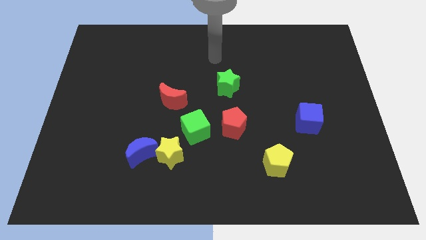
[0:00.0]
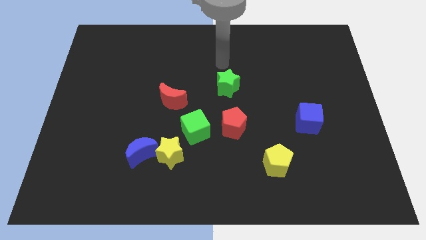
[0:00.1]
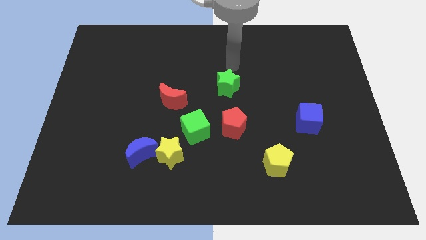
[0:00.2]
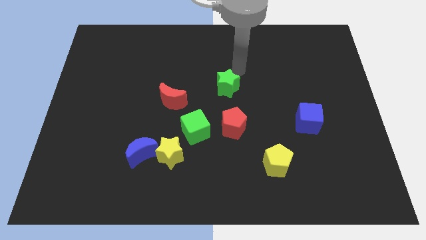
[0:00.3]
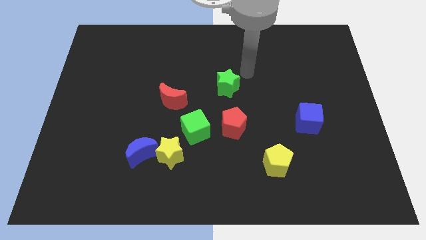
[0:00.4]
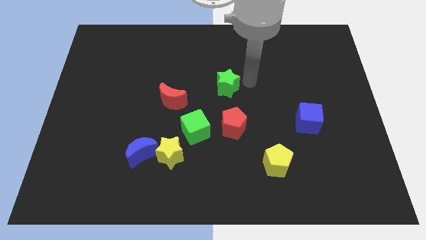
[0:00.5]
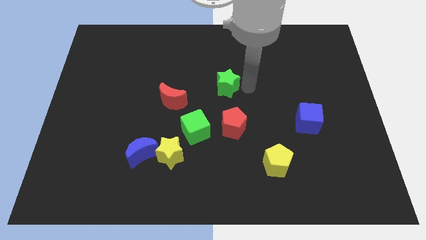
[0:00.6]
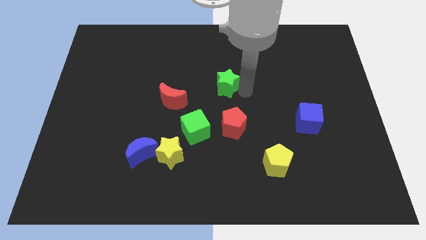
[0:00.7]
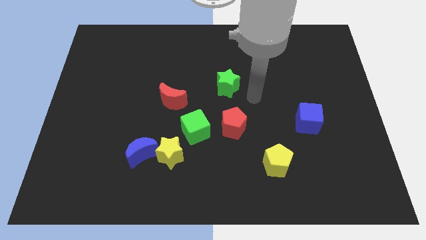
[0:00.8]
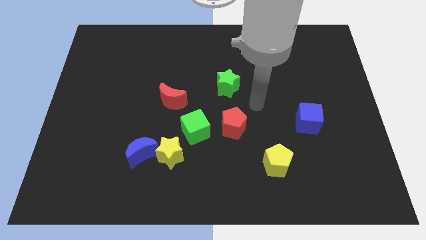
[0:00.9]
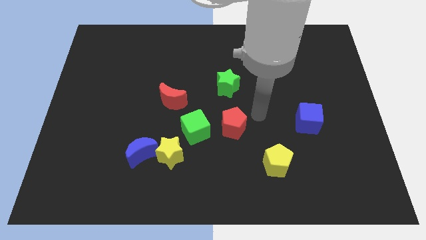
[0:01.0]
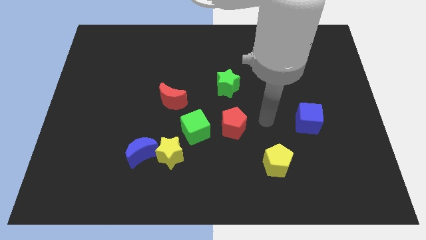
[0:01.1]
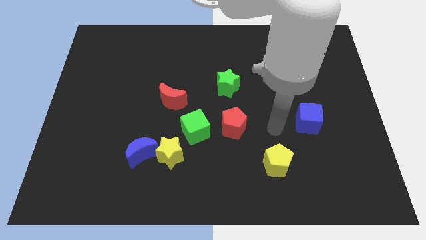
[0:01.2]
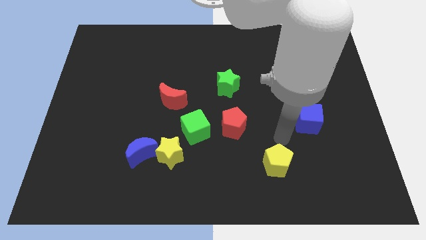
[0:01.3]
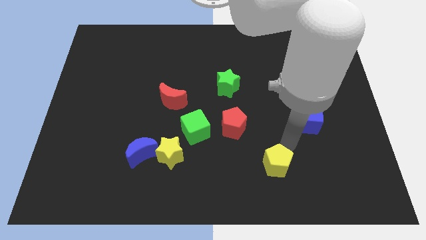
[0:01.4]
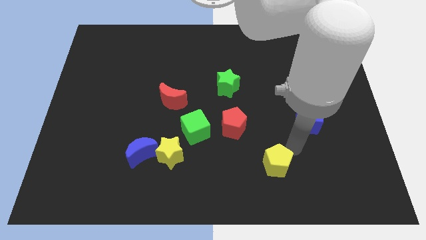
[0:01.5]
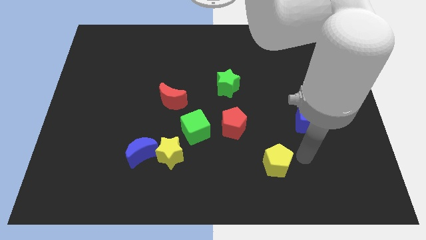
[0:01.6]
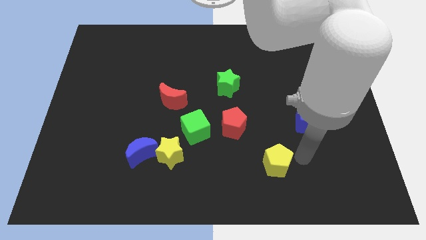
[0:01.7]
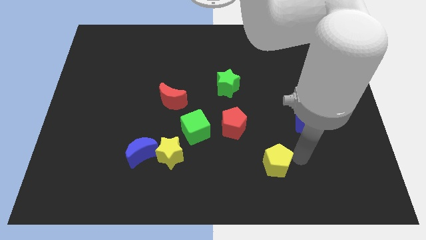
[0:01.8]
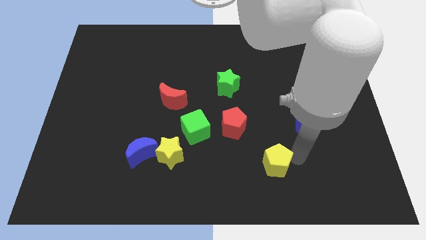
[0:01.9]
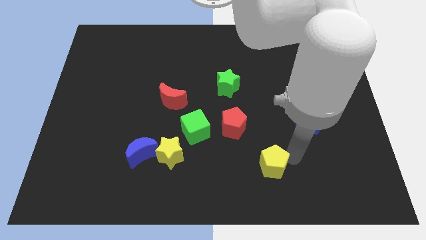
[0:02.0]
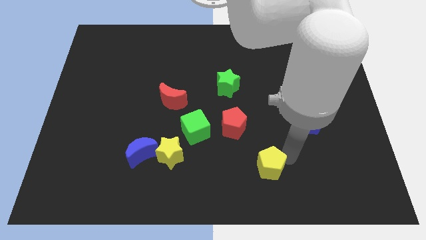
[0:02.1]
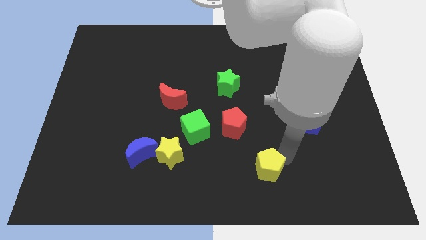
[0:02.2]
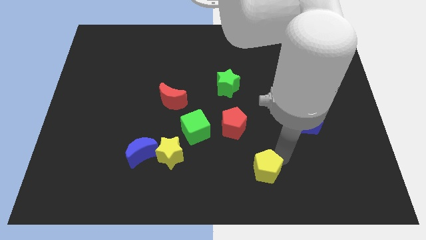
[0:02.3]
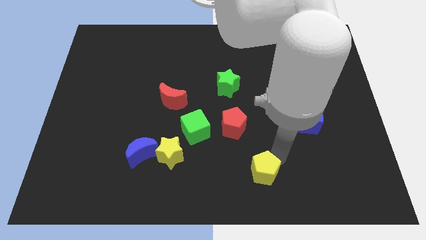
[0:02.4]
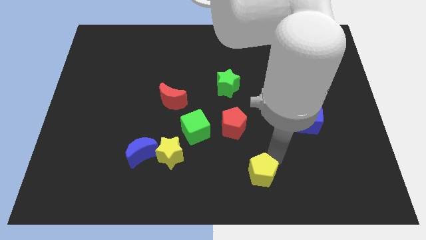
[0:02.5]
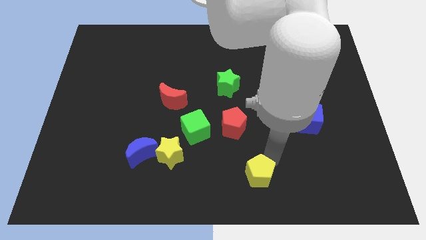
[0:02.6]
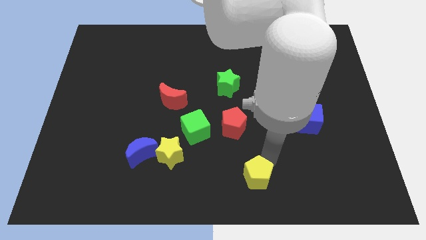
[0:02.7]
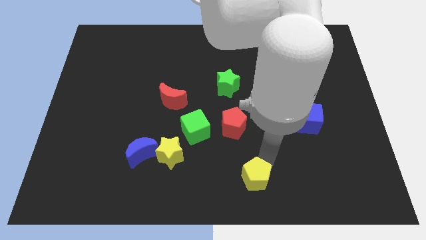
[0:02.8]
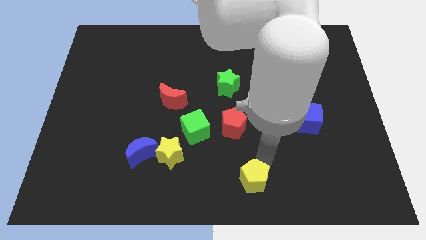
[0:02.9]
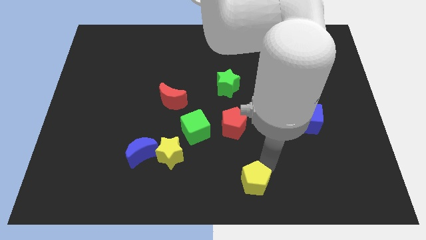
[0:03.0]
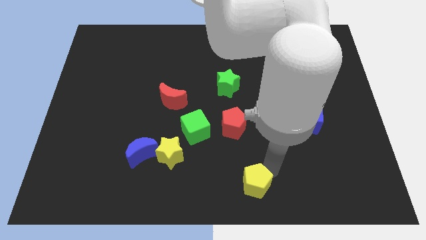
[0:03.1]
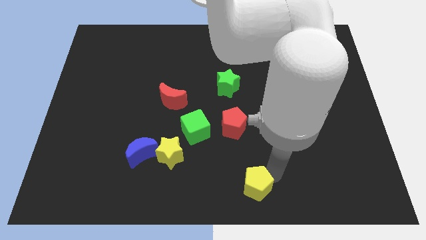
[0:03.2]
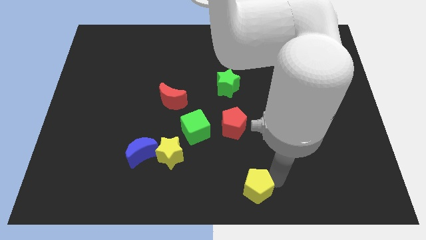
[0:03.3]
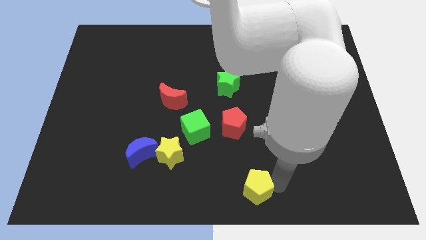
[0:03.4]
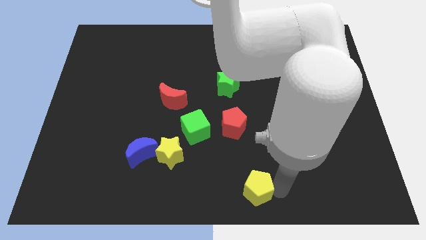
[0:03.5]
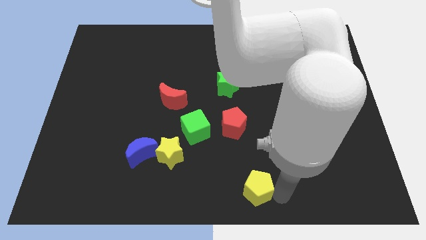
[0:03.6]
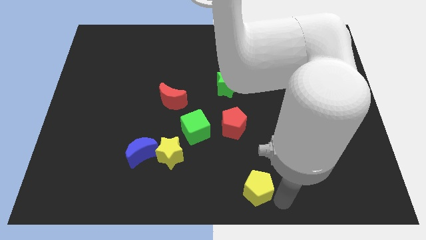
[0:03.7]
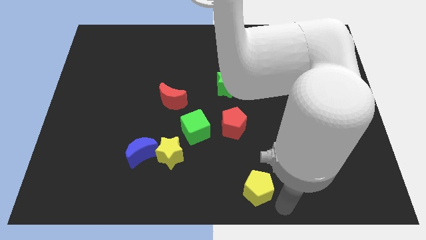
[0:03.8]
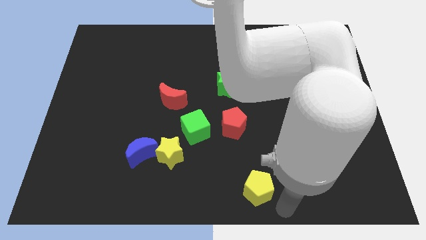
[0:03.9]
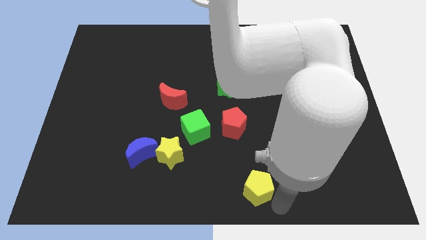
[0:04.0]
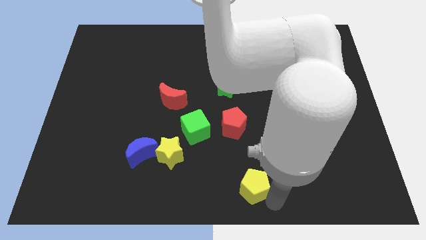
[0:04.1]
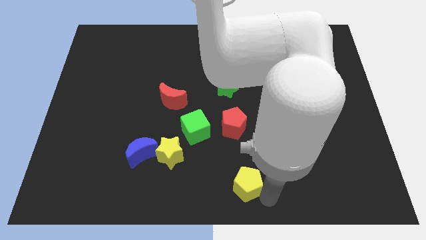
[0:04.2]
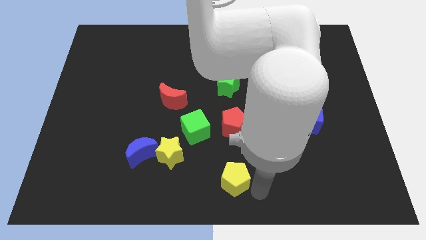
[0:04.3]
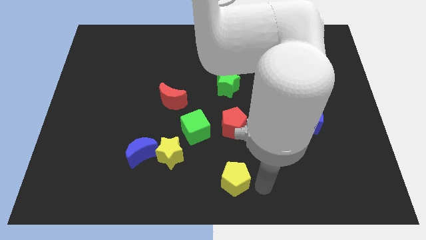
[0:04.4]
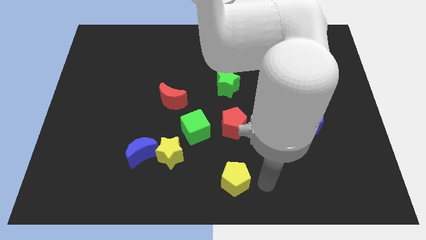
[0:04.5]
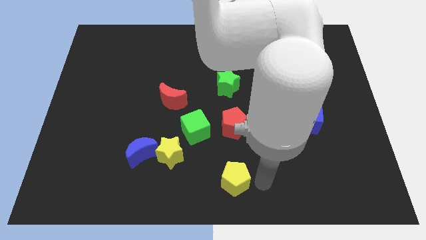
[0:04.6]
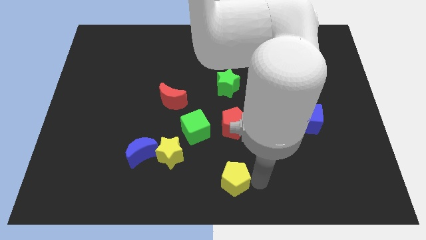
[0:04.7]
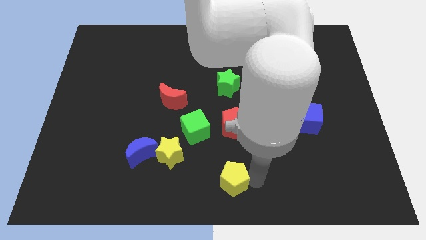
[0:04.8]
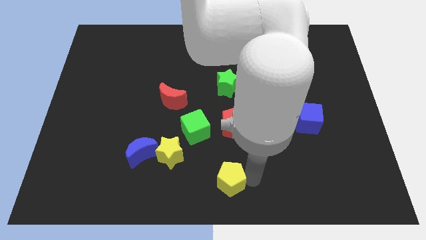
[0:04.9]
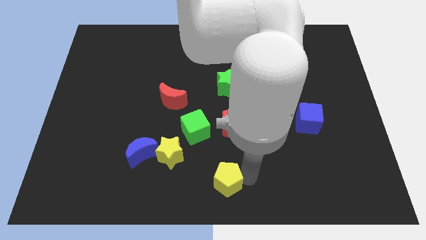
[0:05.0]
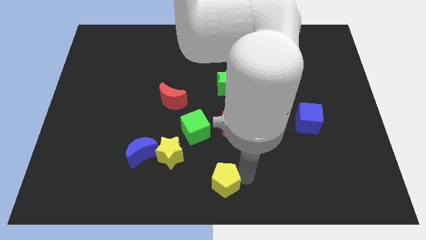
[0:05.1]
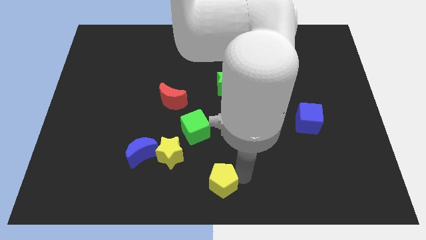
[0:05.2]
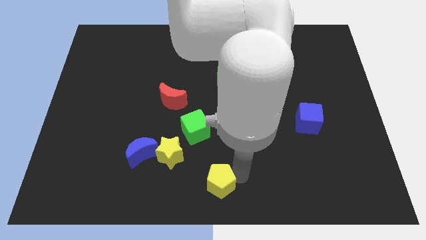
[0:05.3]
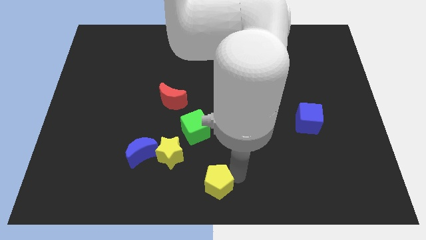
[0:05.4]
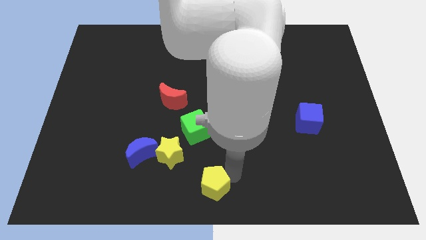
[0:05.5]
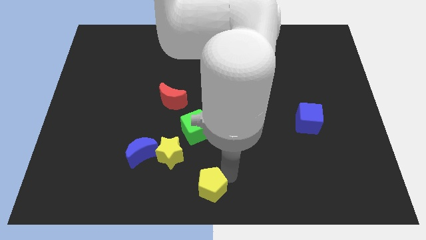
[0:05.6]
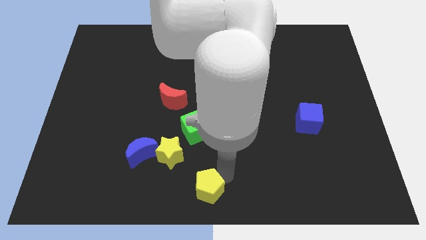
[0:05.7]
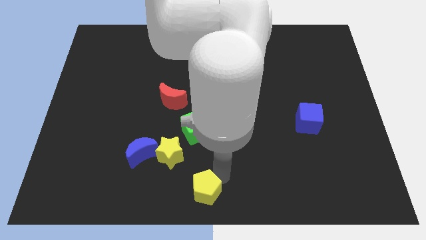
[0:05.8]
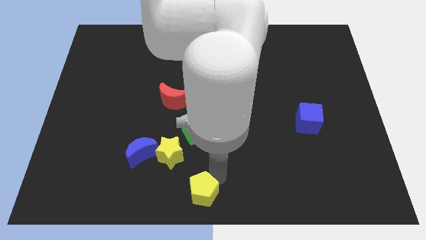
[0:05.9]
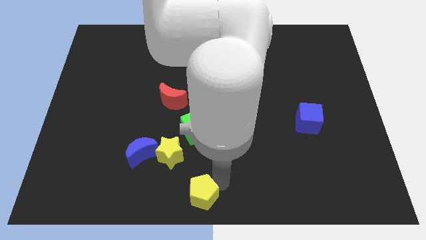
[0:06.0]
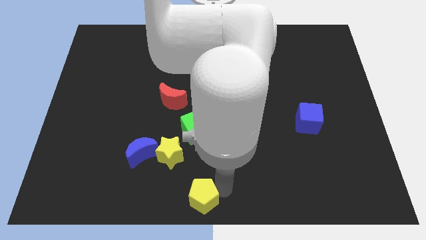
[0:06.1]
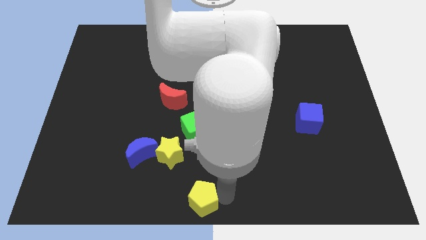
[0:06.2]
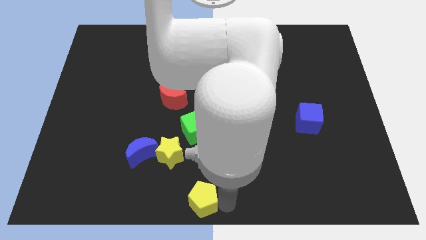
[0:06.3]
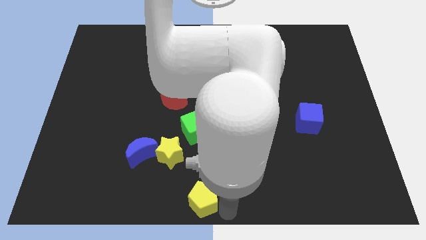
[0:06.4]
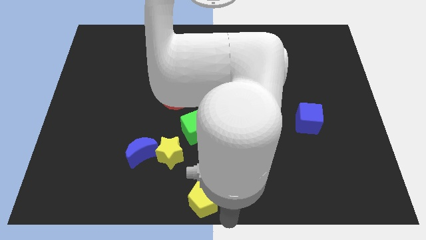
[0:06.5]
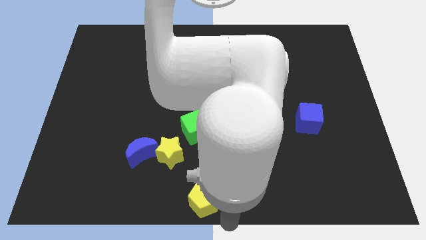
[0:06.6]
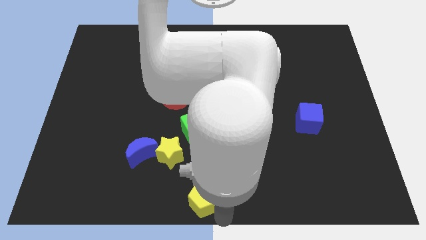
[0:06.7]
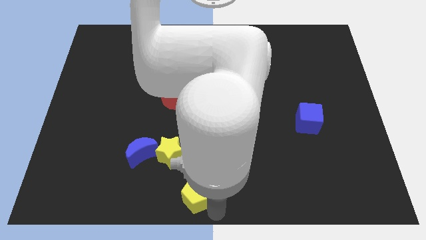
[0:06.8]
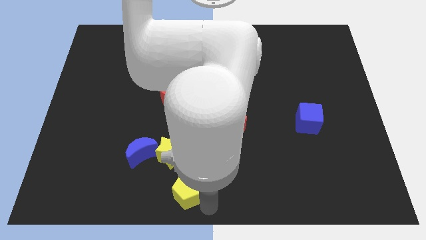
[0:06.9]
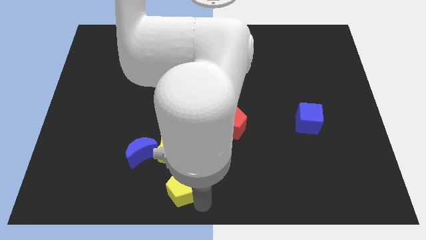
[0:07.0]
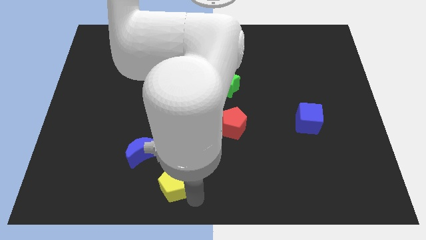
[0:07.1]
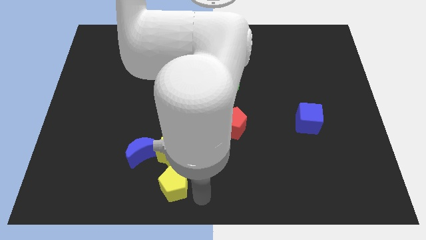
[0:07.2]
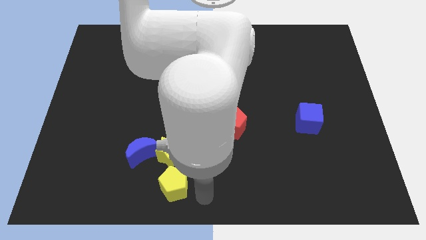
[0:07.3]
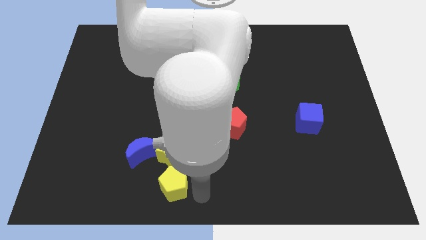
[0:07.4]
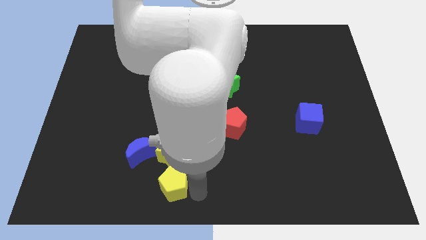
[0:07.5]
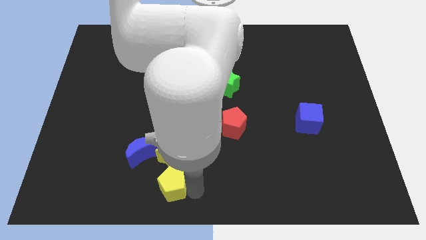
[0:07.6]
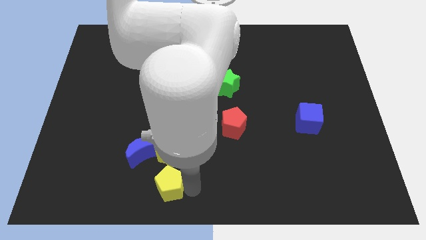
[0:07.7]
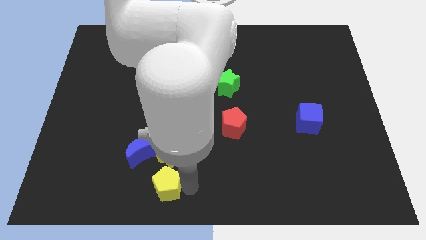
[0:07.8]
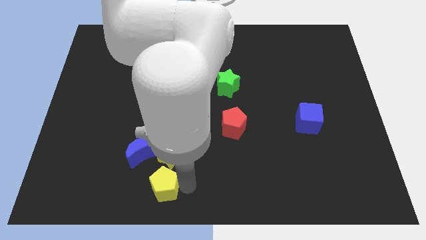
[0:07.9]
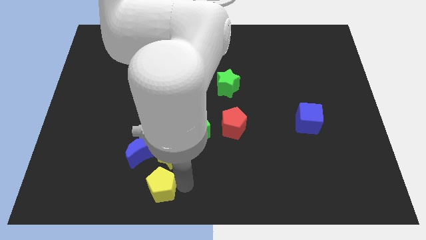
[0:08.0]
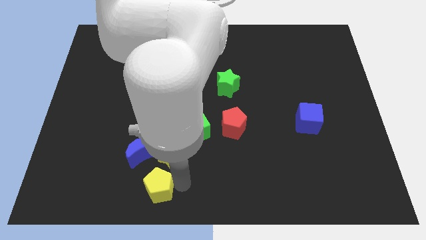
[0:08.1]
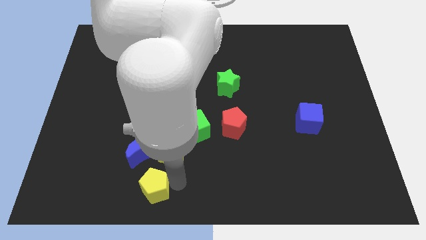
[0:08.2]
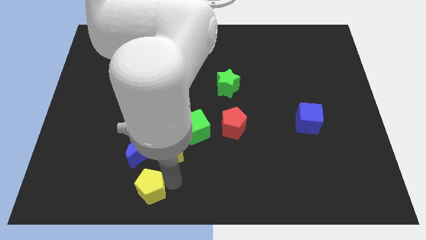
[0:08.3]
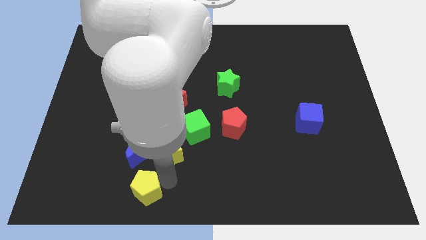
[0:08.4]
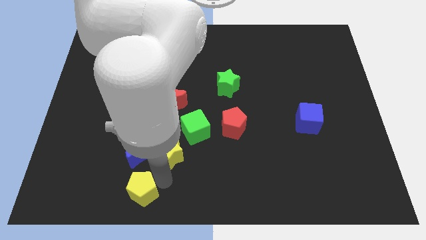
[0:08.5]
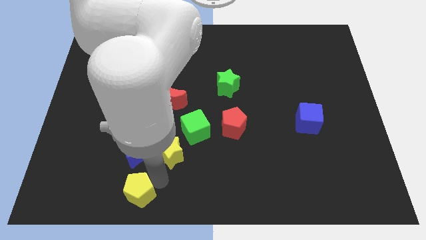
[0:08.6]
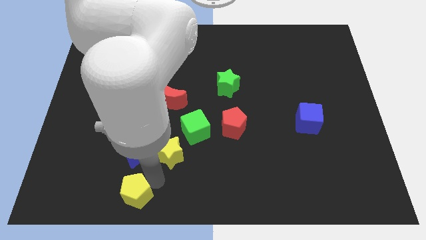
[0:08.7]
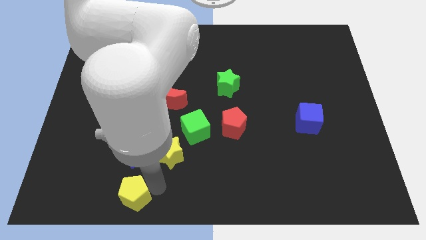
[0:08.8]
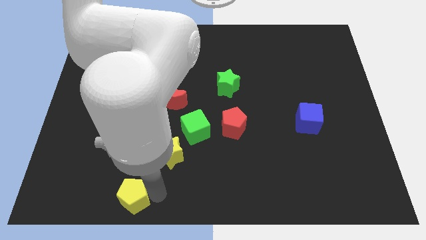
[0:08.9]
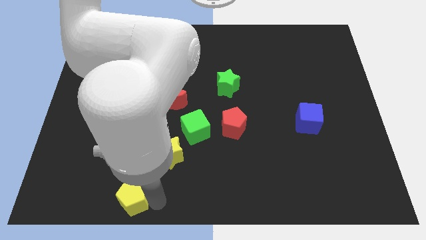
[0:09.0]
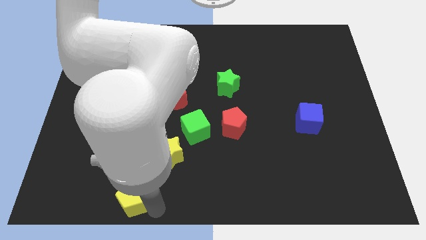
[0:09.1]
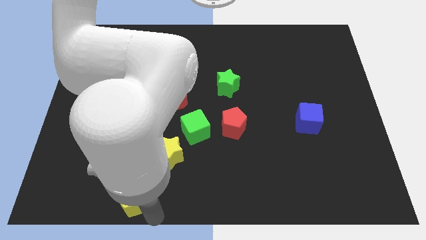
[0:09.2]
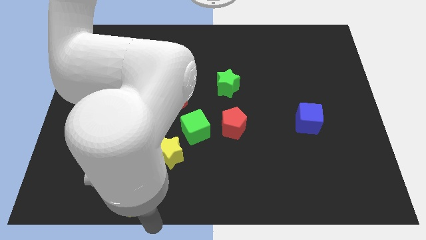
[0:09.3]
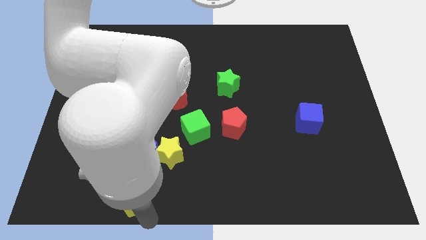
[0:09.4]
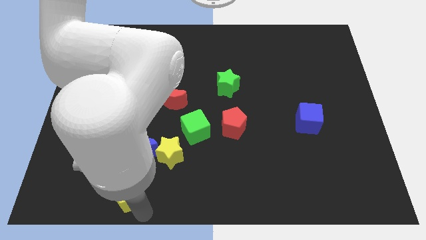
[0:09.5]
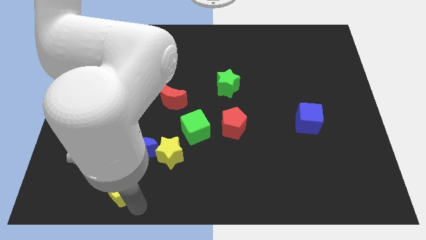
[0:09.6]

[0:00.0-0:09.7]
push the yellow pentagon to the bottom left side of the blue moon
